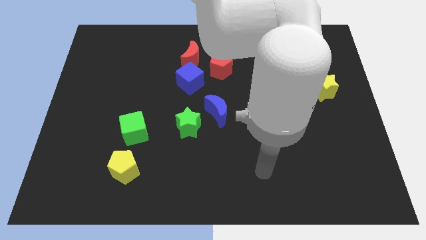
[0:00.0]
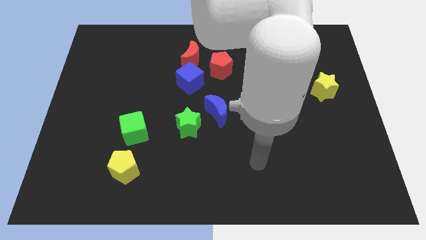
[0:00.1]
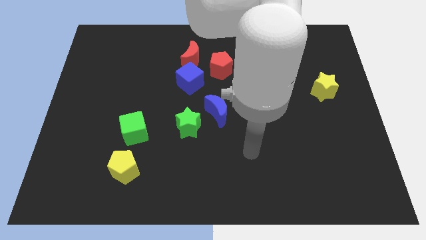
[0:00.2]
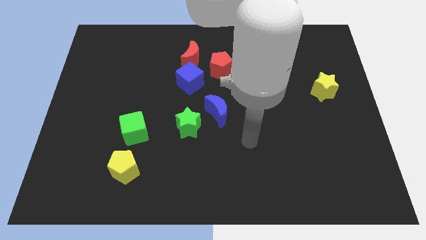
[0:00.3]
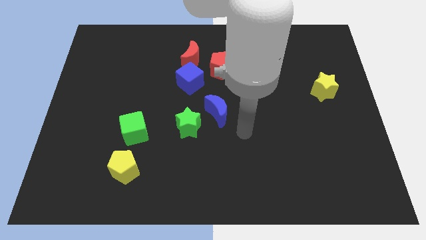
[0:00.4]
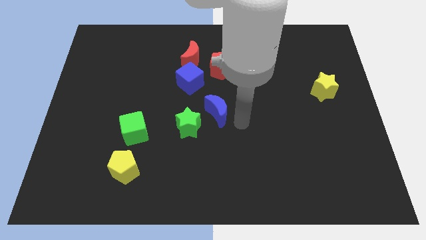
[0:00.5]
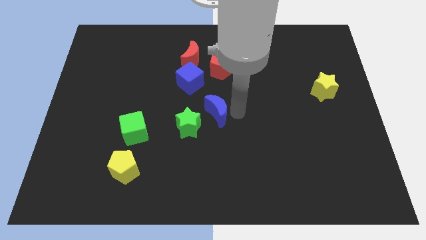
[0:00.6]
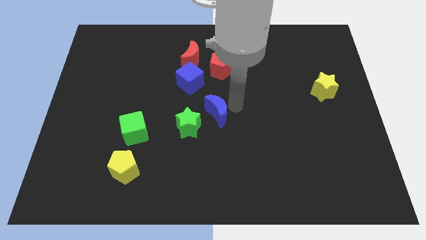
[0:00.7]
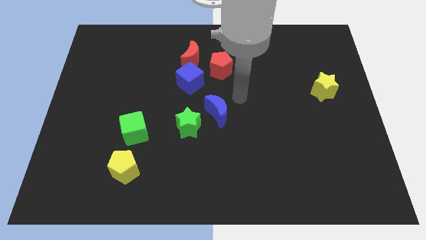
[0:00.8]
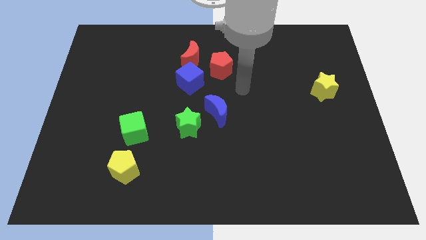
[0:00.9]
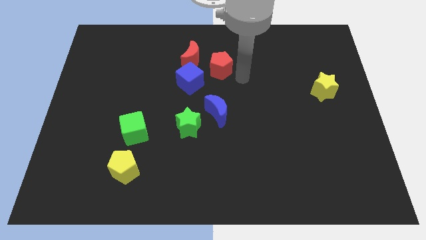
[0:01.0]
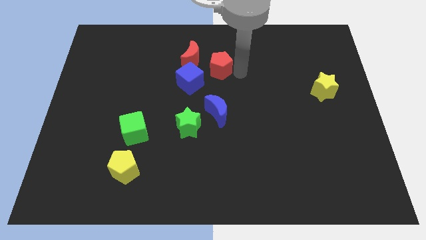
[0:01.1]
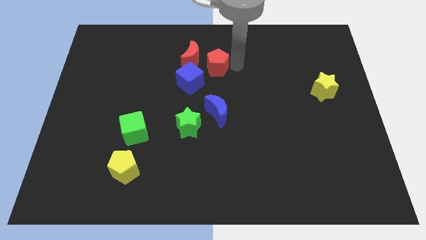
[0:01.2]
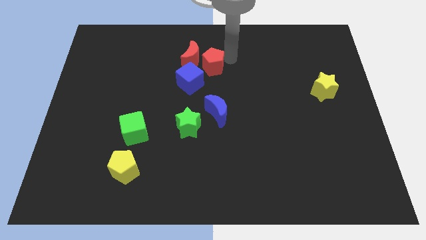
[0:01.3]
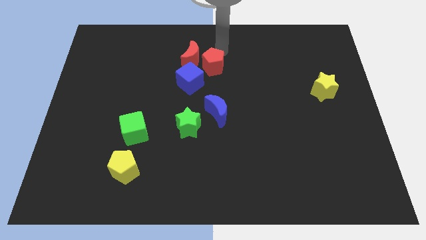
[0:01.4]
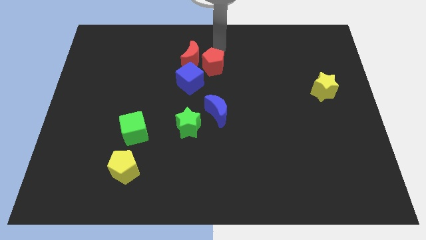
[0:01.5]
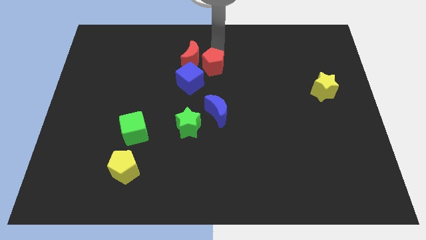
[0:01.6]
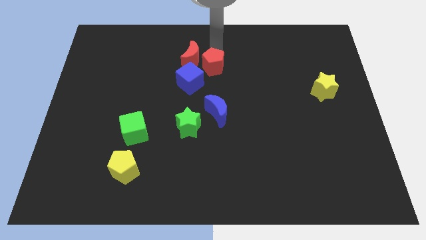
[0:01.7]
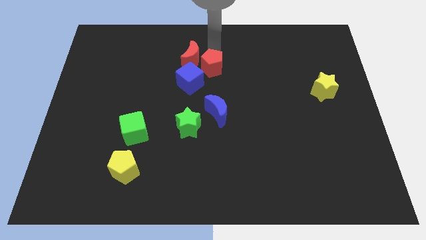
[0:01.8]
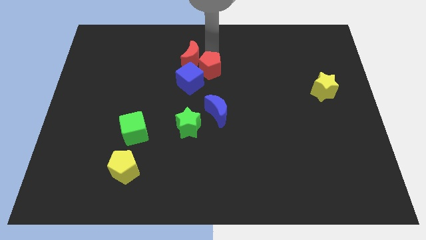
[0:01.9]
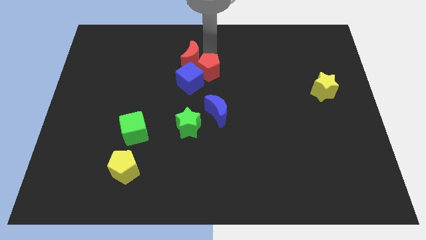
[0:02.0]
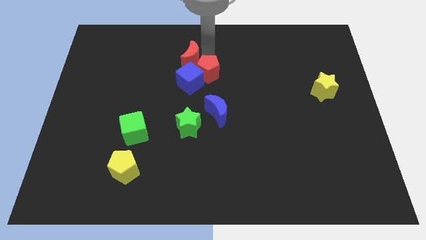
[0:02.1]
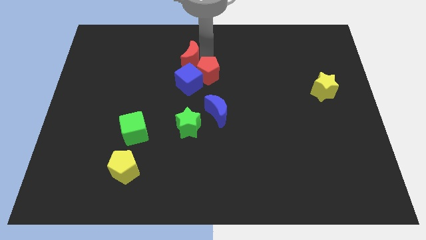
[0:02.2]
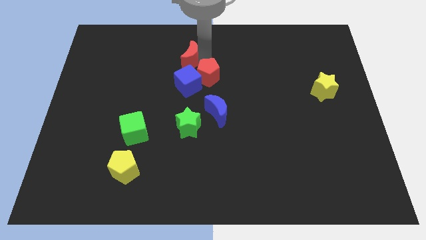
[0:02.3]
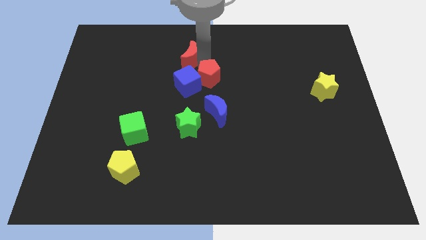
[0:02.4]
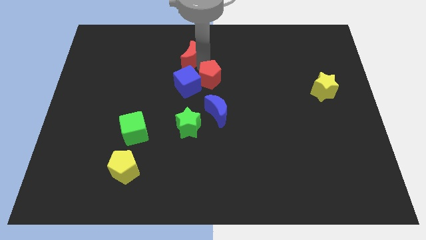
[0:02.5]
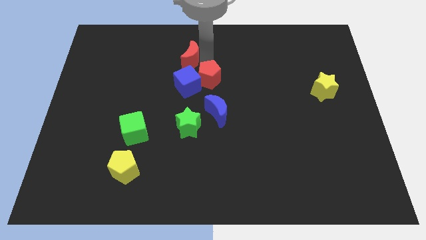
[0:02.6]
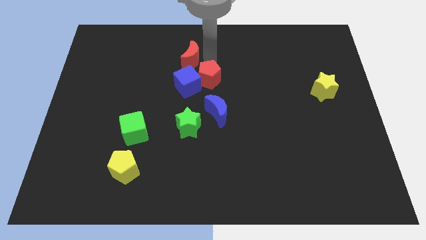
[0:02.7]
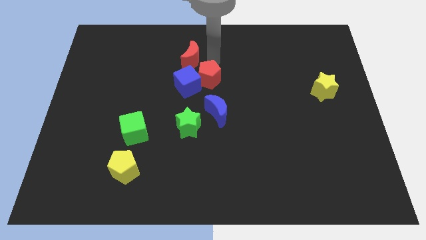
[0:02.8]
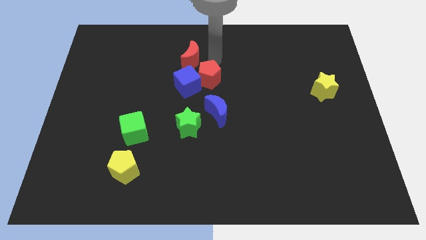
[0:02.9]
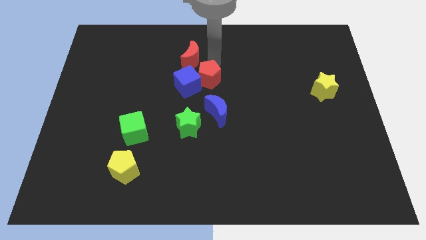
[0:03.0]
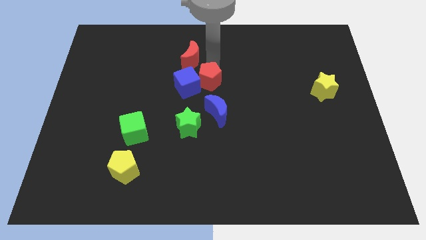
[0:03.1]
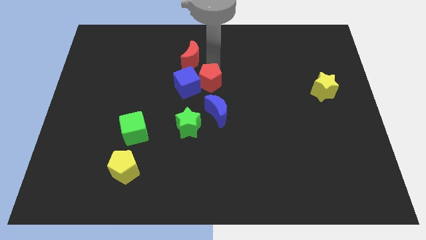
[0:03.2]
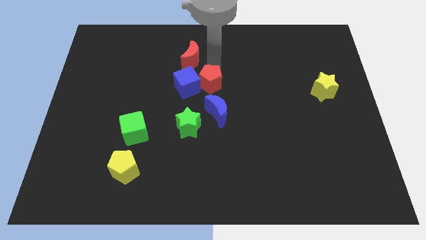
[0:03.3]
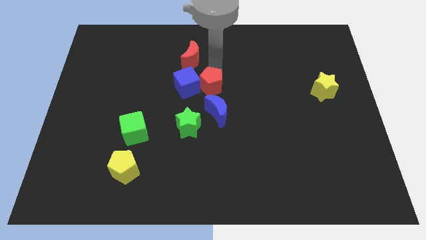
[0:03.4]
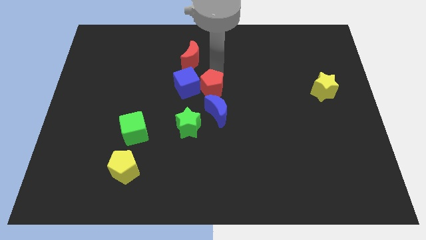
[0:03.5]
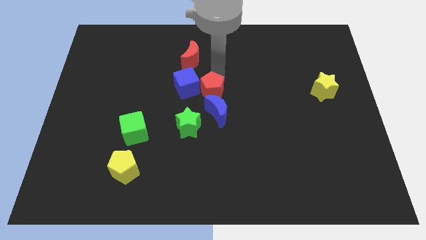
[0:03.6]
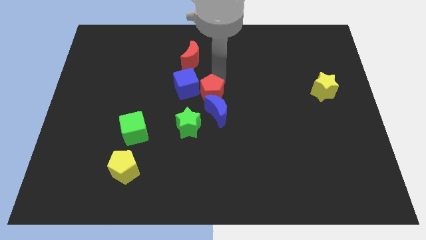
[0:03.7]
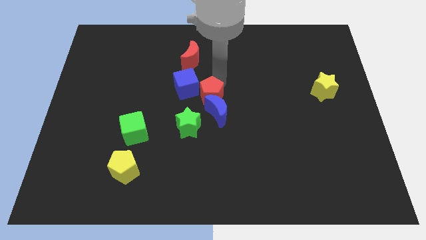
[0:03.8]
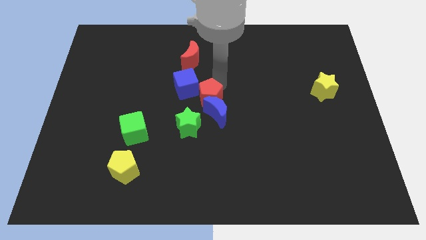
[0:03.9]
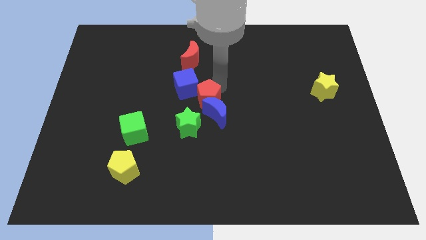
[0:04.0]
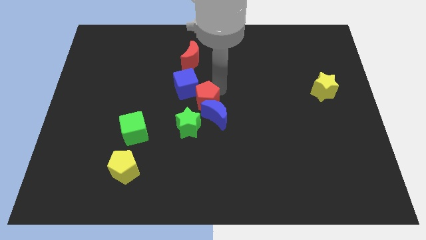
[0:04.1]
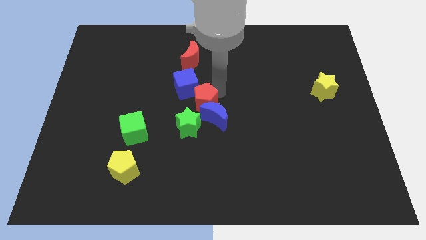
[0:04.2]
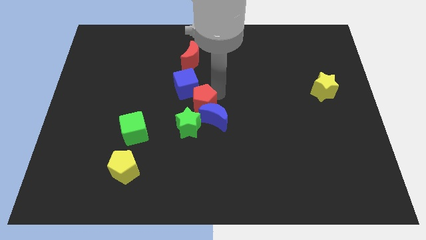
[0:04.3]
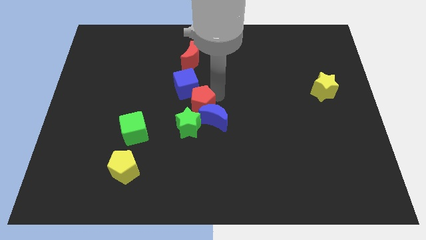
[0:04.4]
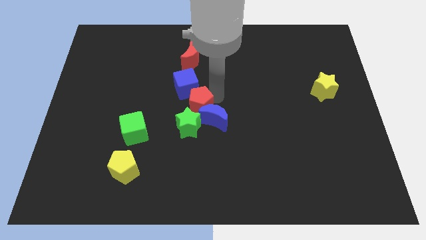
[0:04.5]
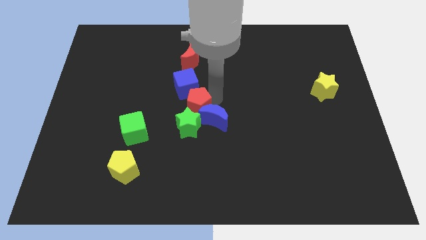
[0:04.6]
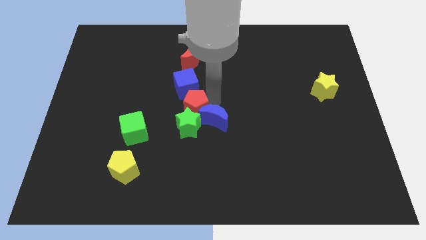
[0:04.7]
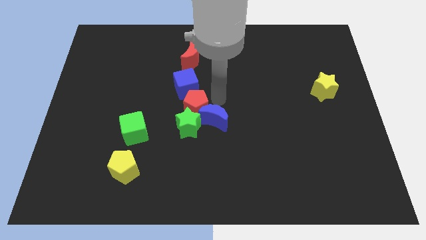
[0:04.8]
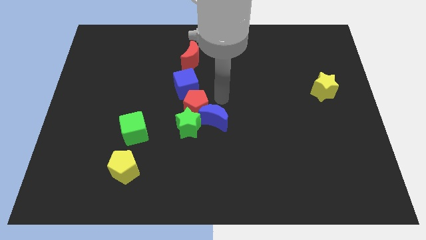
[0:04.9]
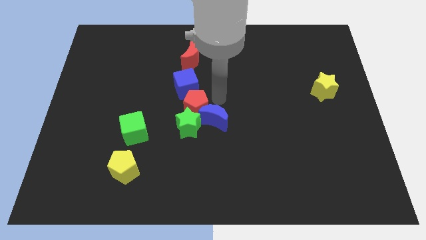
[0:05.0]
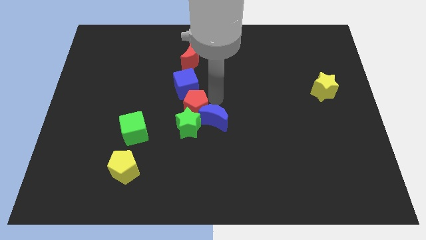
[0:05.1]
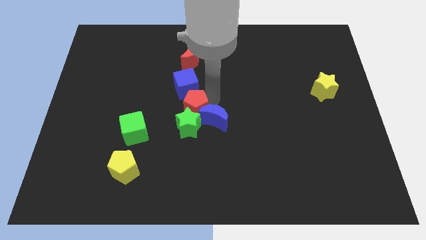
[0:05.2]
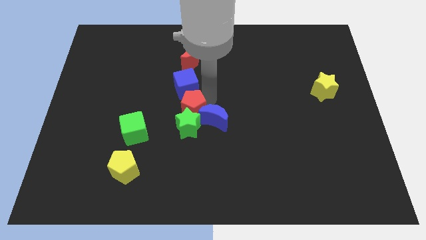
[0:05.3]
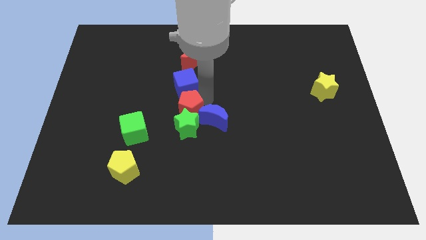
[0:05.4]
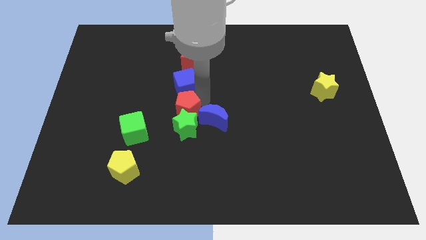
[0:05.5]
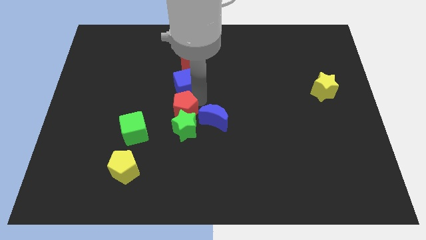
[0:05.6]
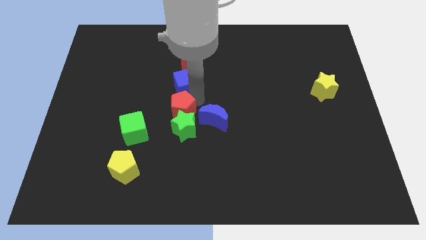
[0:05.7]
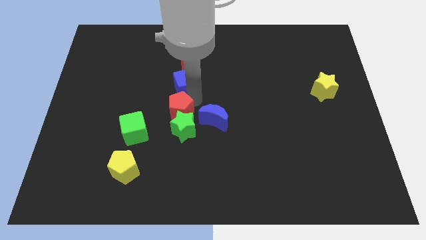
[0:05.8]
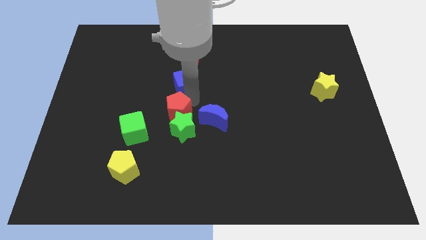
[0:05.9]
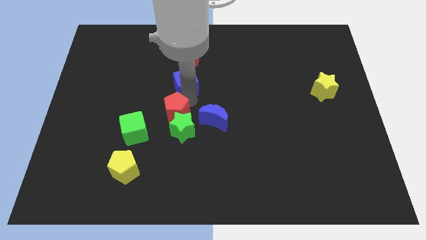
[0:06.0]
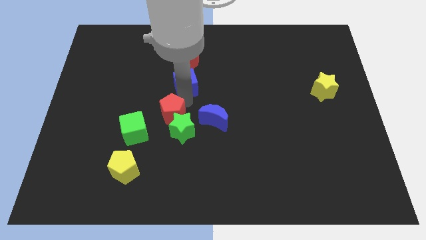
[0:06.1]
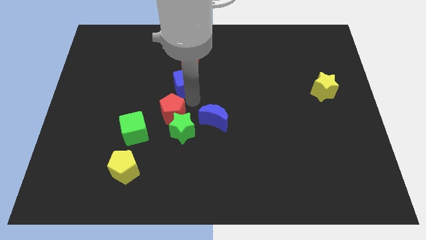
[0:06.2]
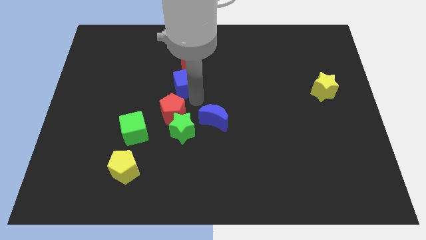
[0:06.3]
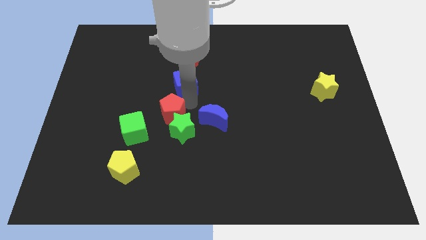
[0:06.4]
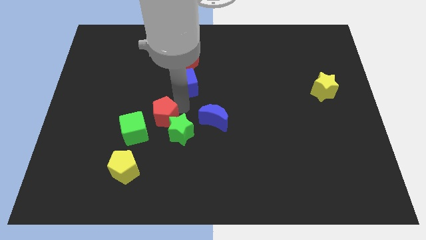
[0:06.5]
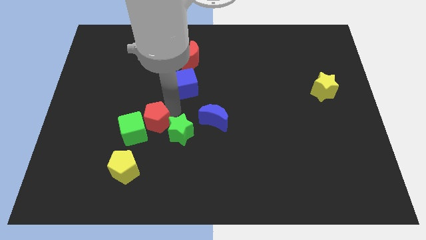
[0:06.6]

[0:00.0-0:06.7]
move the red pentagon next to the green cube
